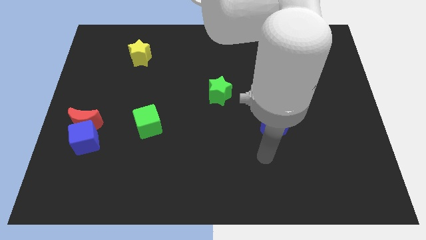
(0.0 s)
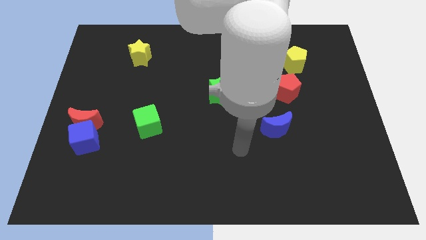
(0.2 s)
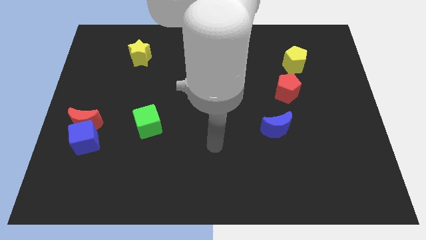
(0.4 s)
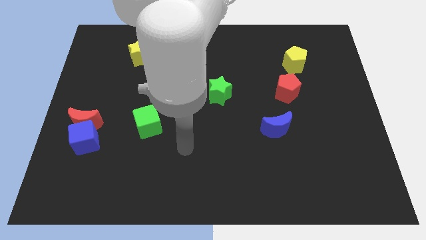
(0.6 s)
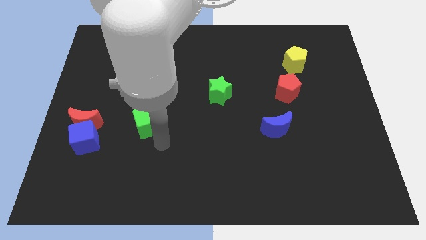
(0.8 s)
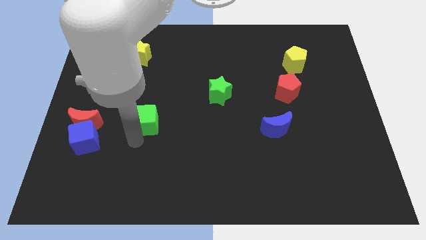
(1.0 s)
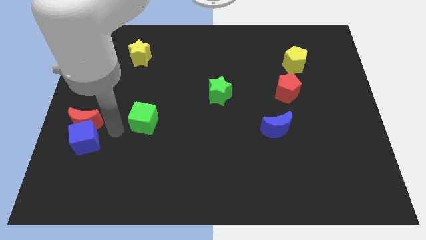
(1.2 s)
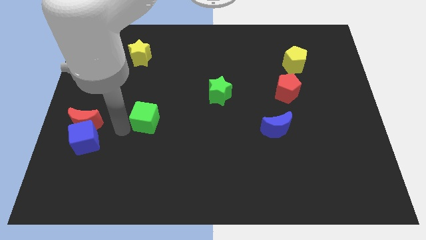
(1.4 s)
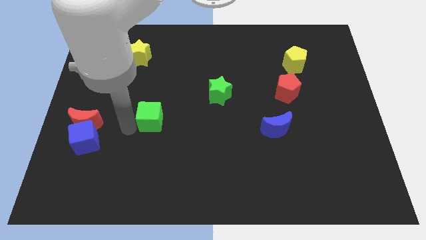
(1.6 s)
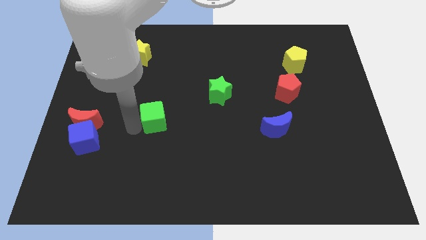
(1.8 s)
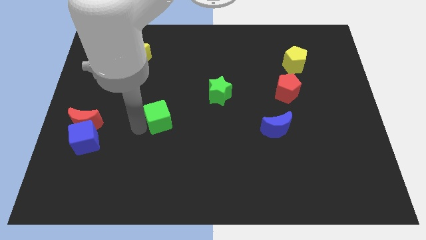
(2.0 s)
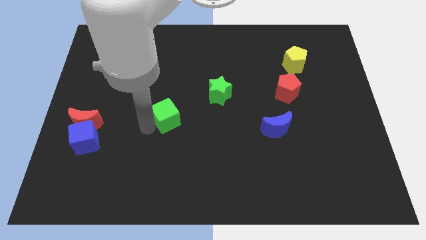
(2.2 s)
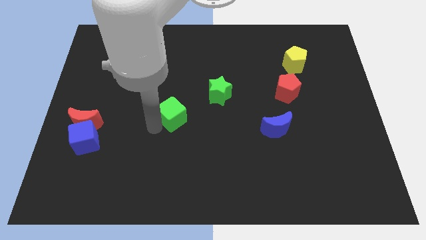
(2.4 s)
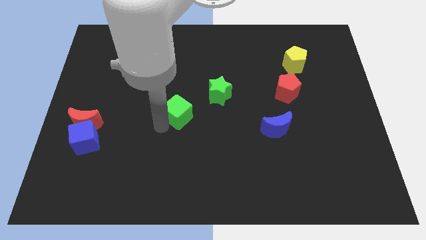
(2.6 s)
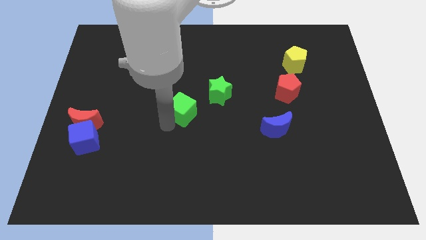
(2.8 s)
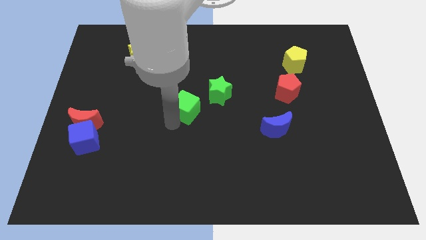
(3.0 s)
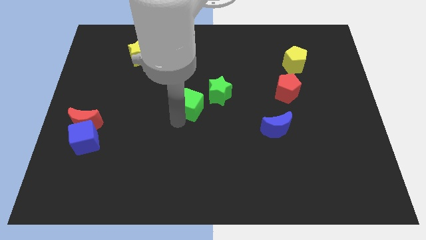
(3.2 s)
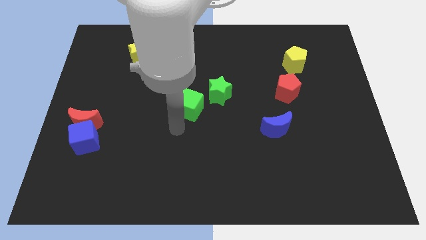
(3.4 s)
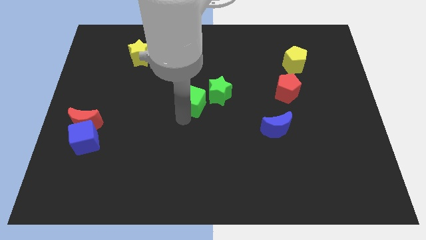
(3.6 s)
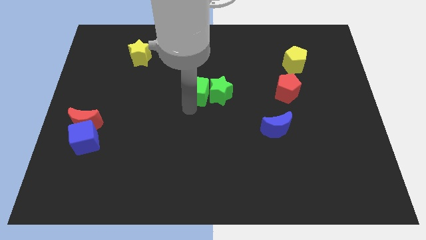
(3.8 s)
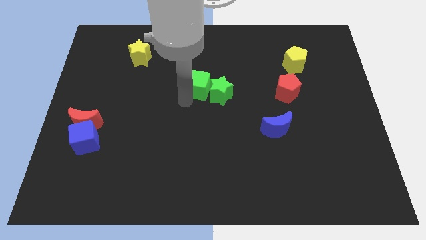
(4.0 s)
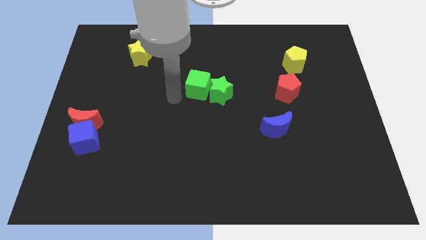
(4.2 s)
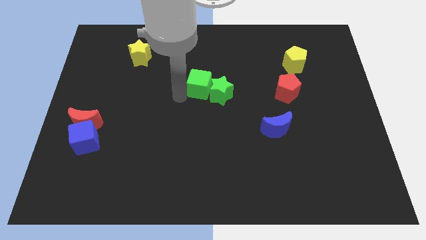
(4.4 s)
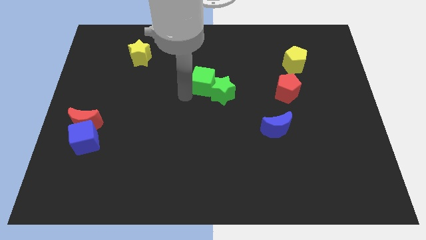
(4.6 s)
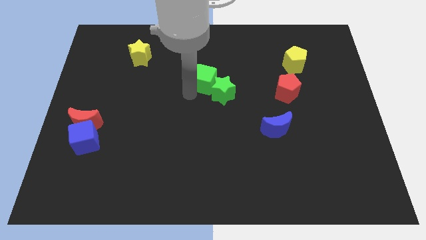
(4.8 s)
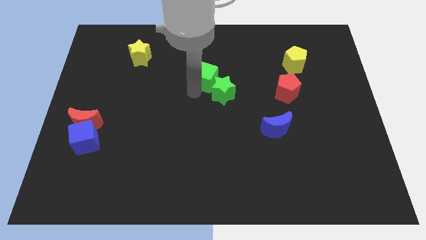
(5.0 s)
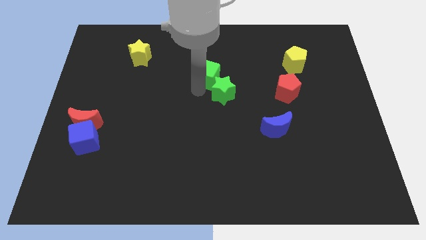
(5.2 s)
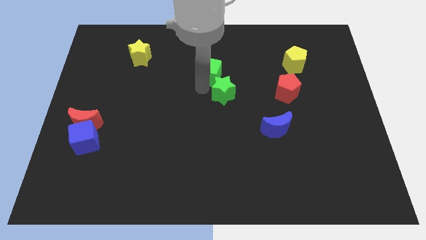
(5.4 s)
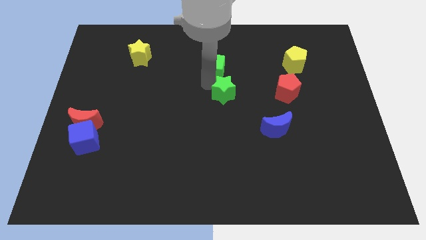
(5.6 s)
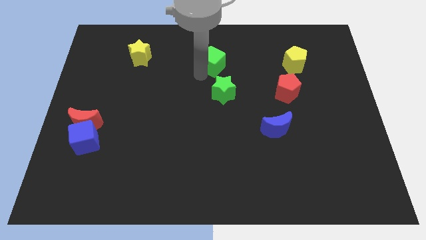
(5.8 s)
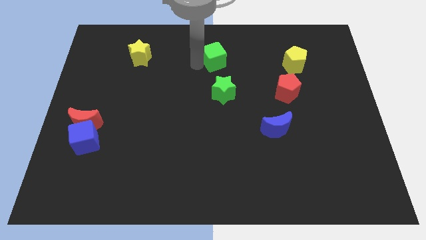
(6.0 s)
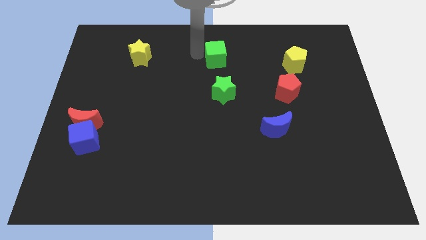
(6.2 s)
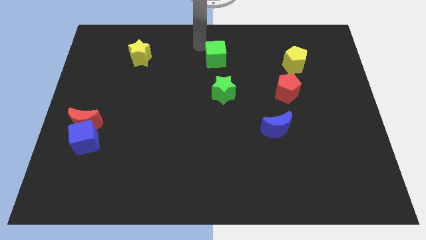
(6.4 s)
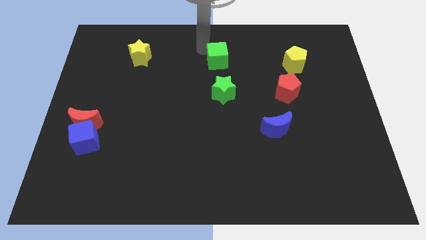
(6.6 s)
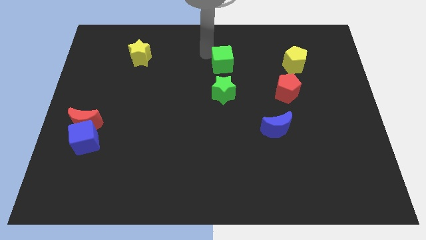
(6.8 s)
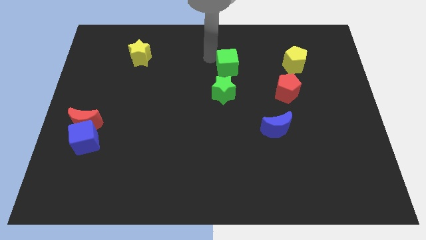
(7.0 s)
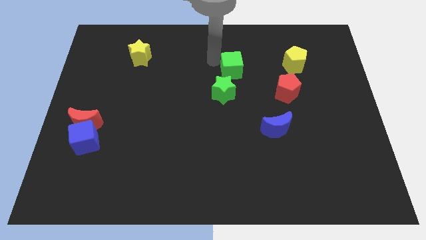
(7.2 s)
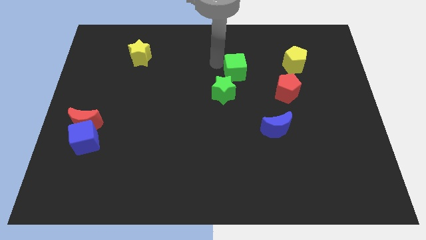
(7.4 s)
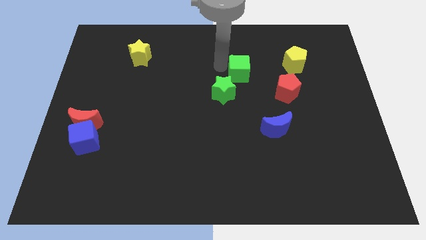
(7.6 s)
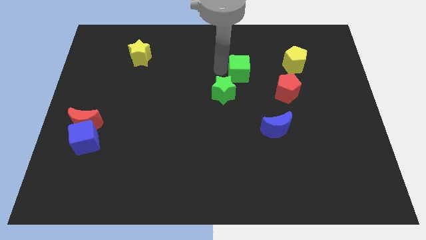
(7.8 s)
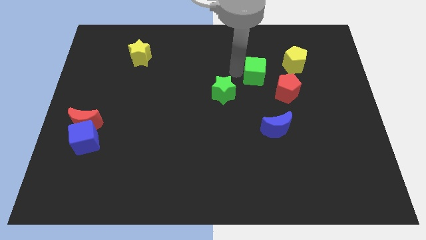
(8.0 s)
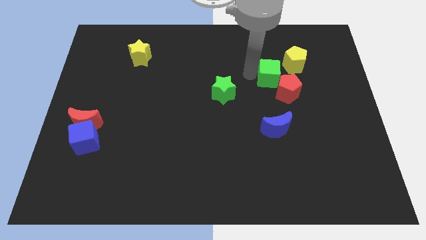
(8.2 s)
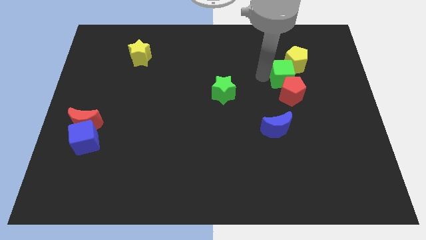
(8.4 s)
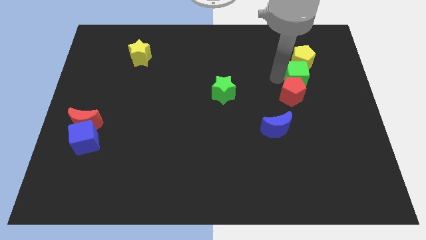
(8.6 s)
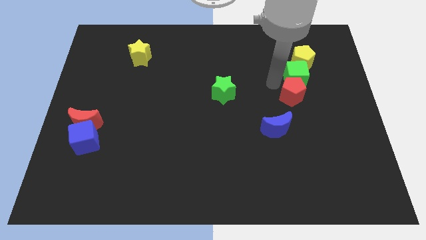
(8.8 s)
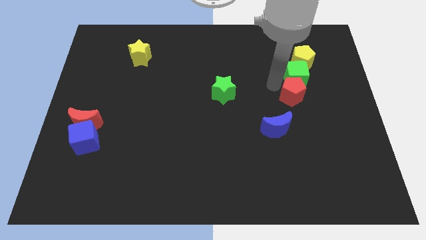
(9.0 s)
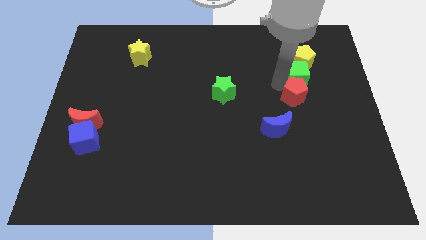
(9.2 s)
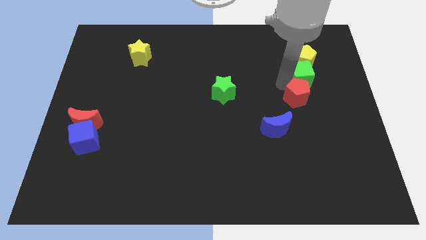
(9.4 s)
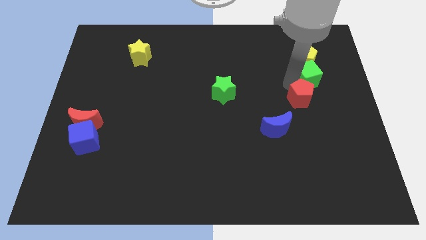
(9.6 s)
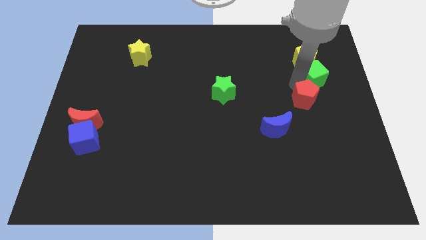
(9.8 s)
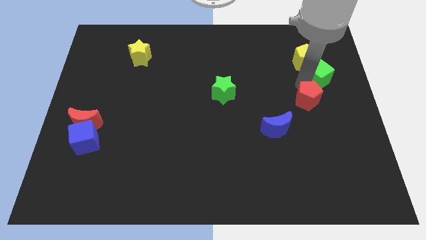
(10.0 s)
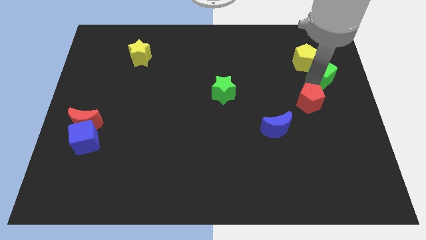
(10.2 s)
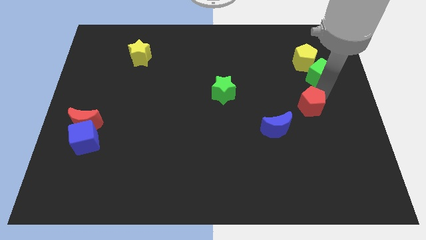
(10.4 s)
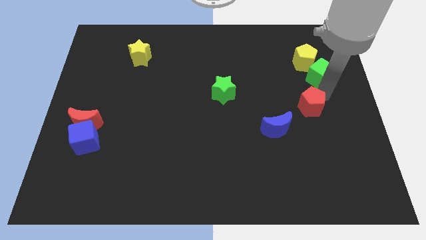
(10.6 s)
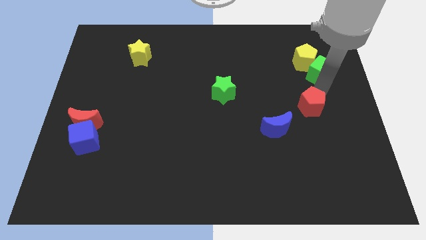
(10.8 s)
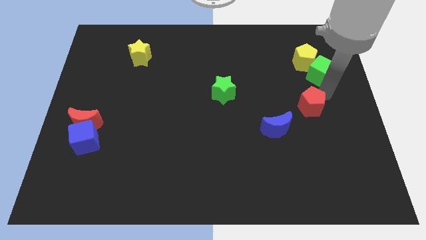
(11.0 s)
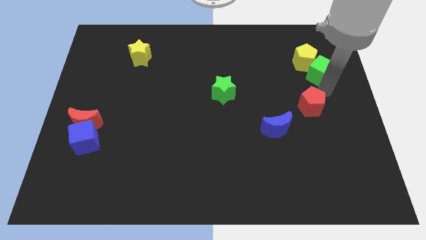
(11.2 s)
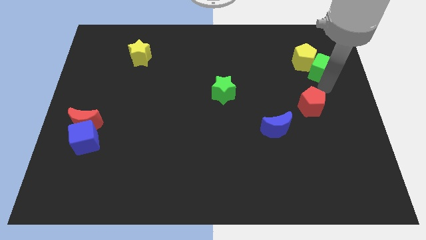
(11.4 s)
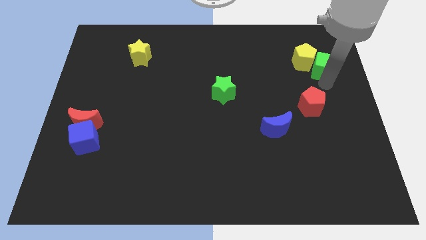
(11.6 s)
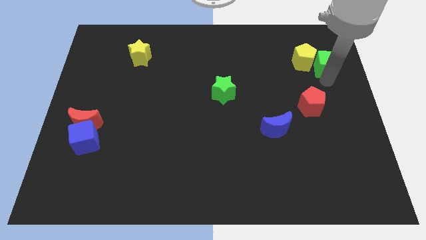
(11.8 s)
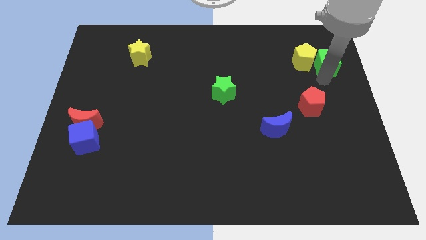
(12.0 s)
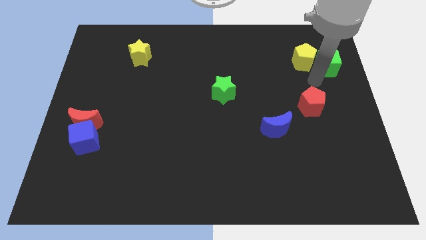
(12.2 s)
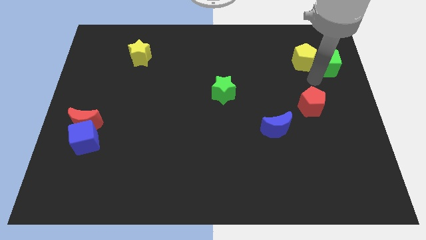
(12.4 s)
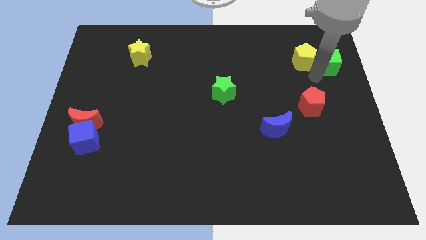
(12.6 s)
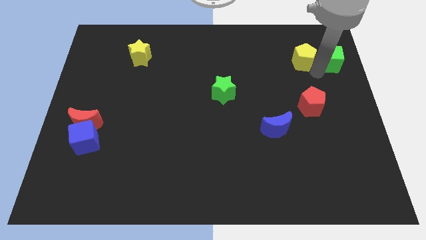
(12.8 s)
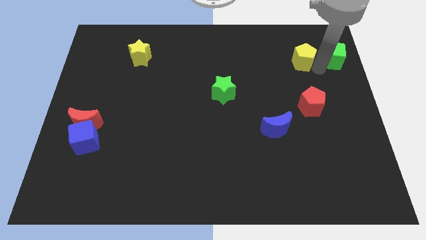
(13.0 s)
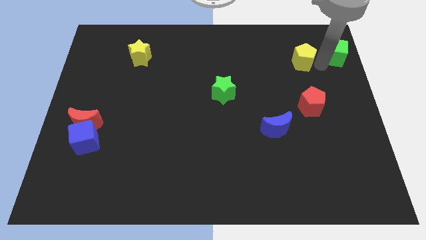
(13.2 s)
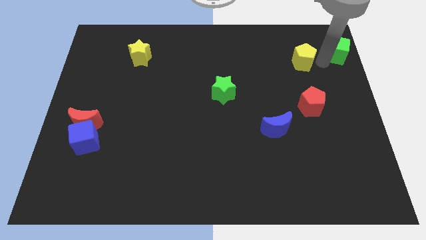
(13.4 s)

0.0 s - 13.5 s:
put the green cube to the top right of the board

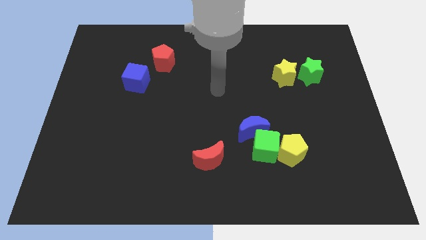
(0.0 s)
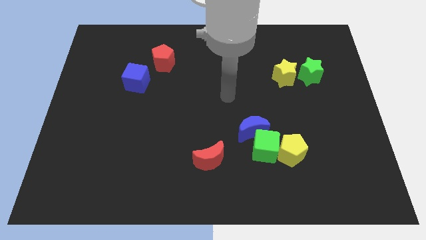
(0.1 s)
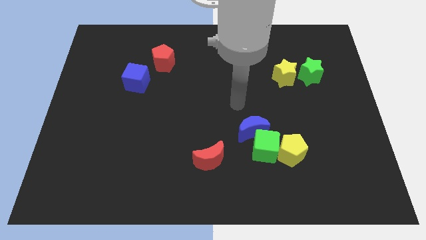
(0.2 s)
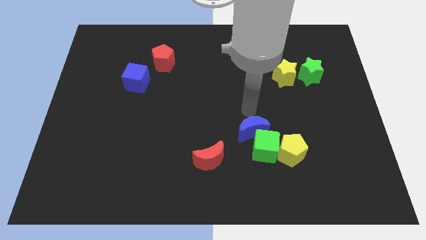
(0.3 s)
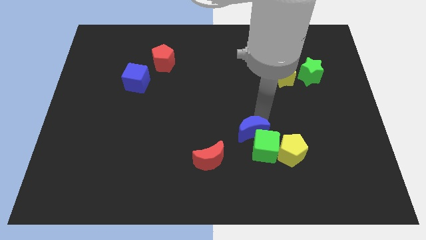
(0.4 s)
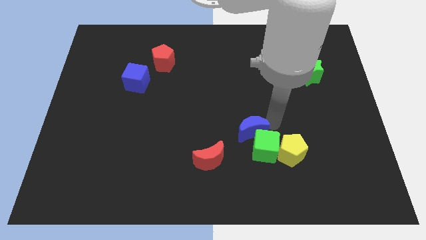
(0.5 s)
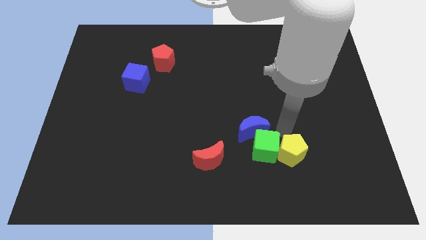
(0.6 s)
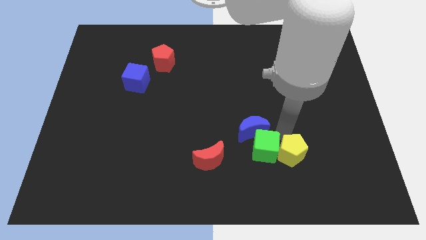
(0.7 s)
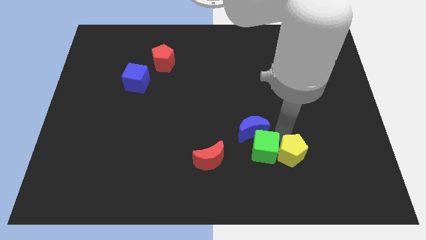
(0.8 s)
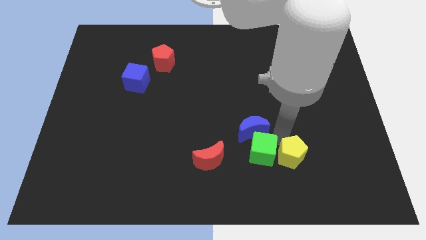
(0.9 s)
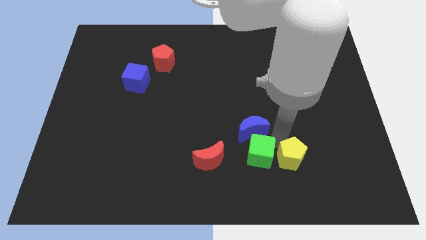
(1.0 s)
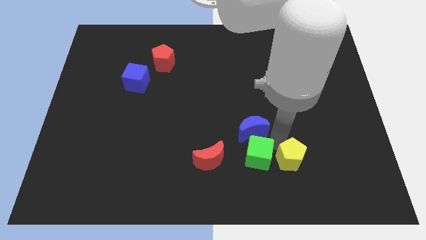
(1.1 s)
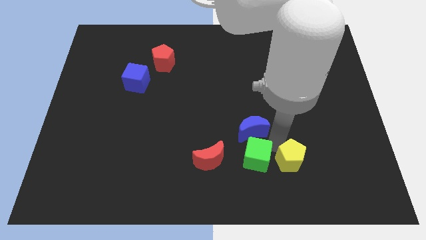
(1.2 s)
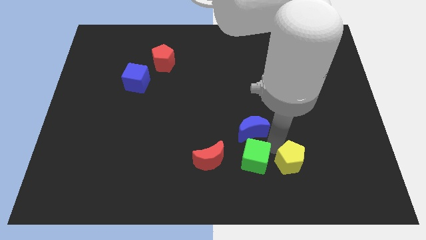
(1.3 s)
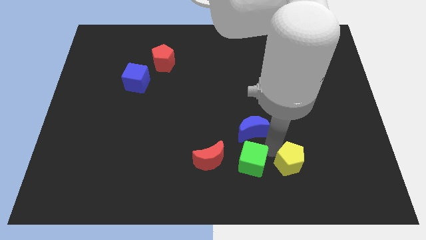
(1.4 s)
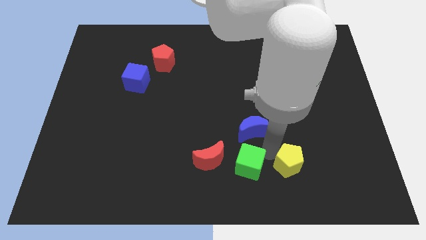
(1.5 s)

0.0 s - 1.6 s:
put the green cube to the bottom
